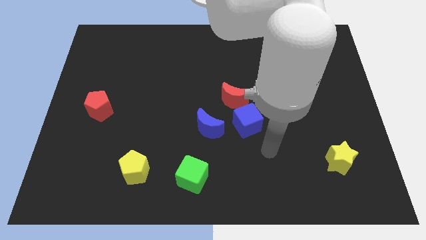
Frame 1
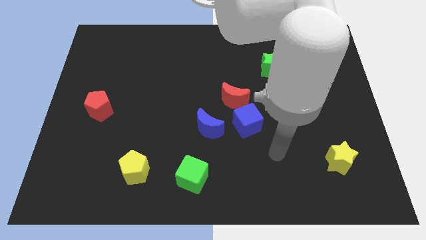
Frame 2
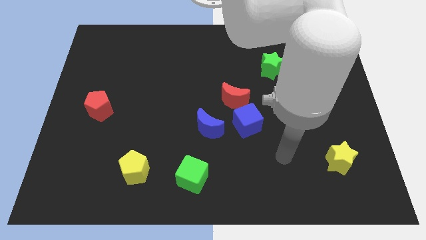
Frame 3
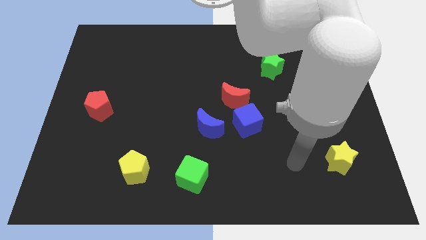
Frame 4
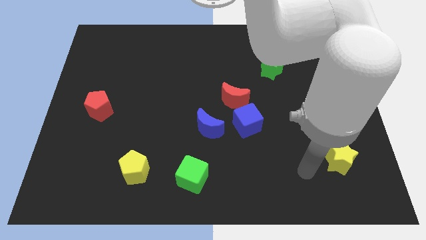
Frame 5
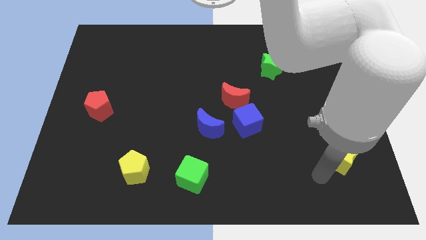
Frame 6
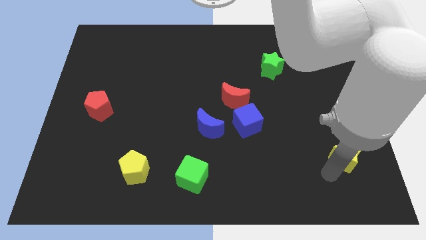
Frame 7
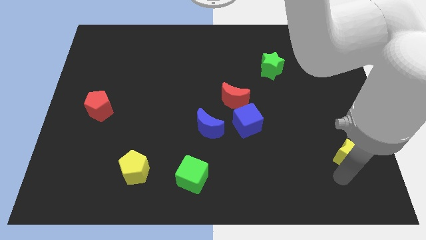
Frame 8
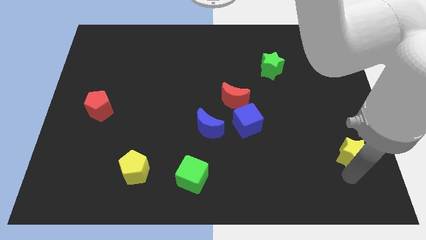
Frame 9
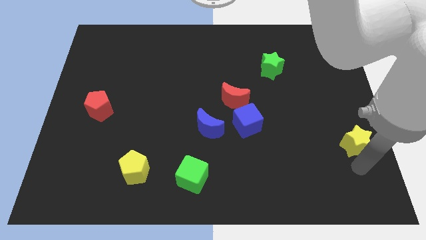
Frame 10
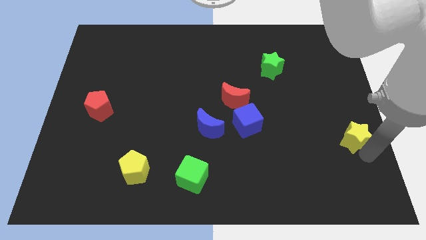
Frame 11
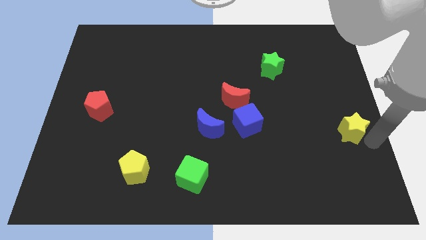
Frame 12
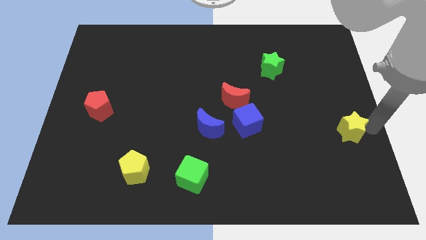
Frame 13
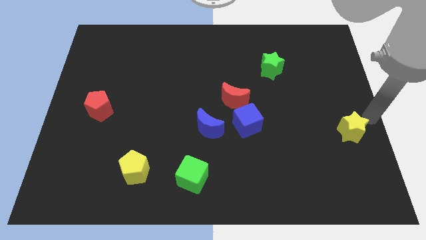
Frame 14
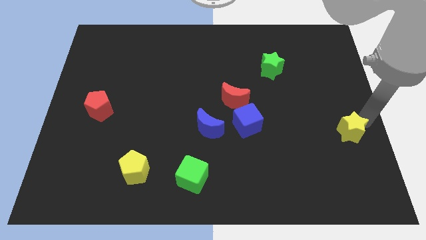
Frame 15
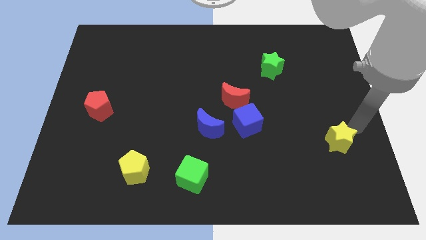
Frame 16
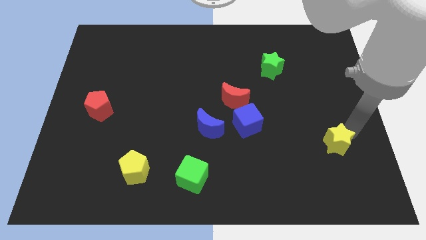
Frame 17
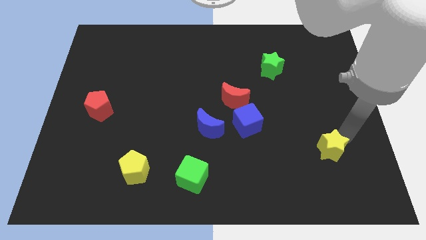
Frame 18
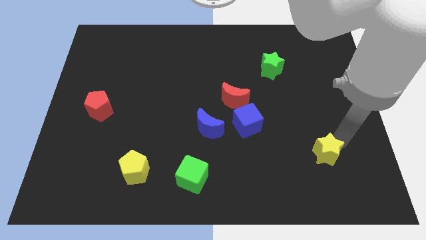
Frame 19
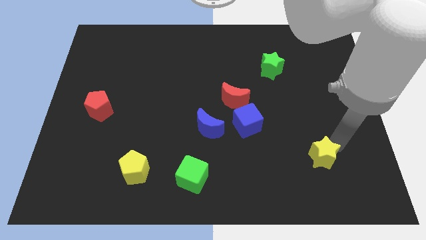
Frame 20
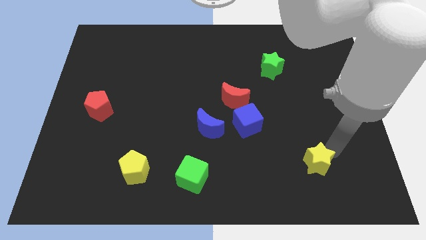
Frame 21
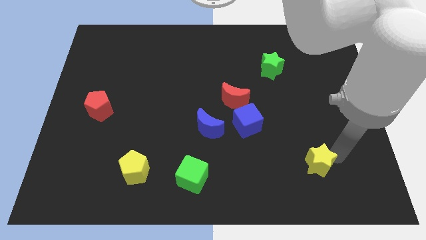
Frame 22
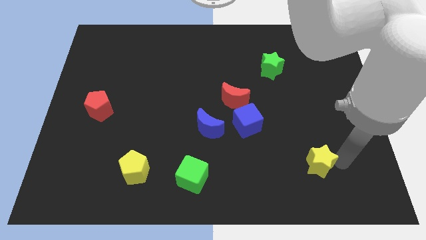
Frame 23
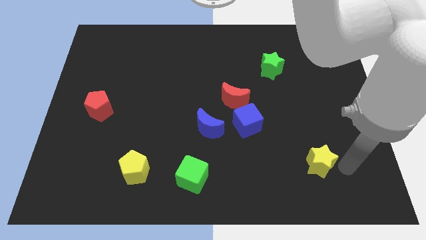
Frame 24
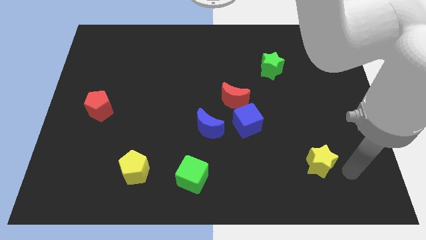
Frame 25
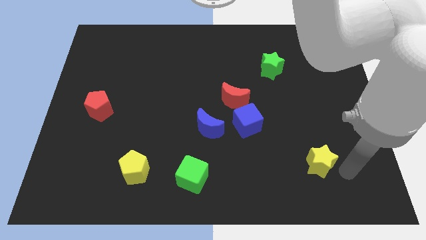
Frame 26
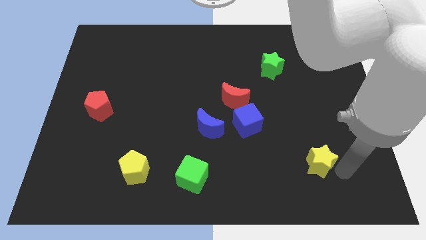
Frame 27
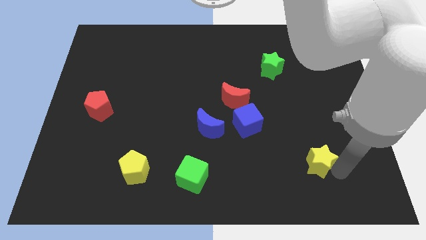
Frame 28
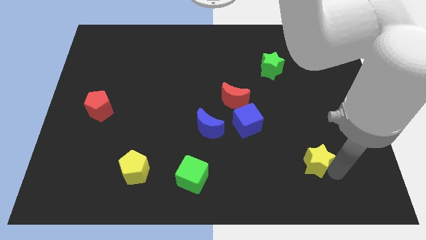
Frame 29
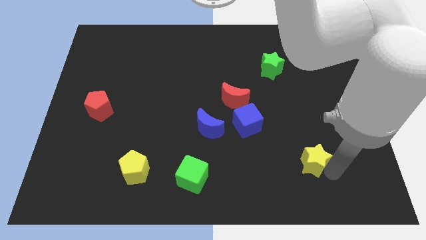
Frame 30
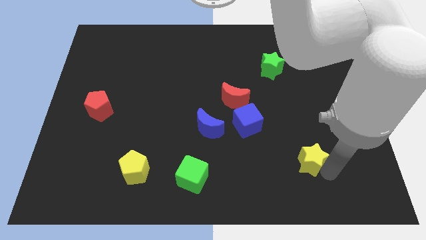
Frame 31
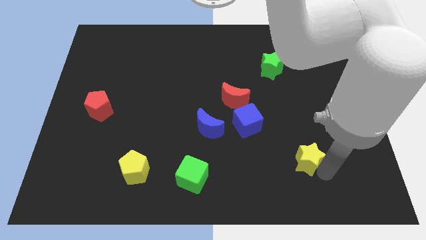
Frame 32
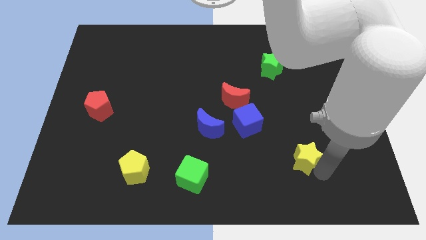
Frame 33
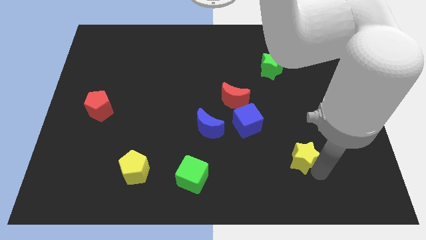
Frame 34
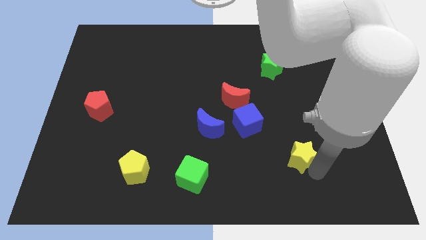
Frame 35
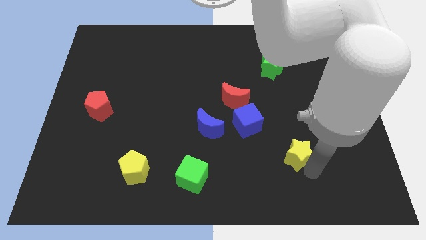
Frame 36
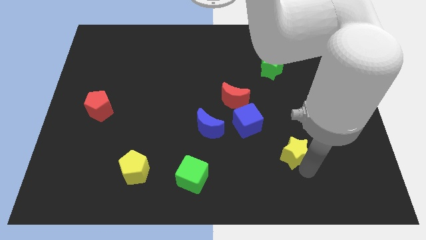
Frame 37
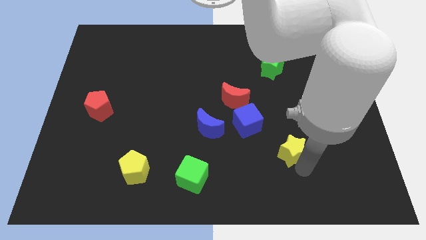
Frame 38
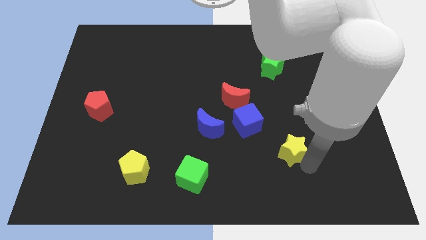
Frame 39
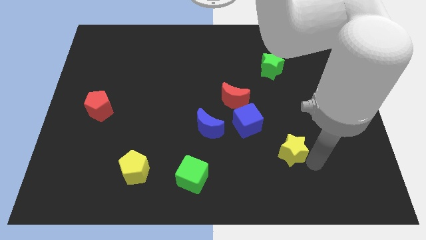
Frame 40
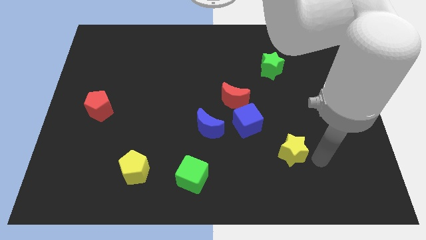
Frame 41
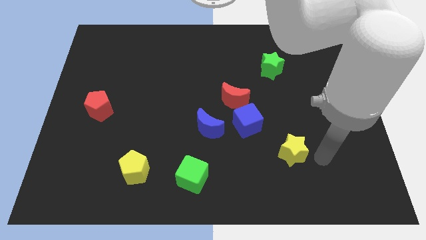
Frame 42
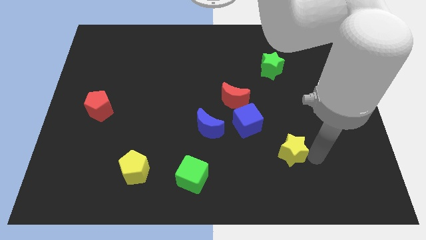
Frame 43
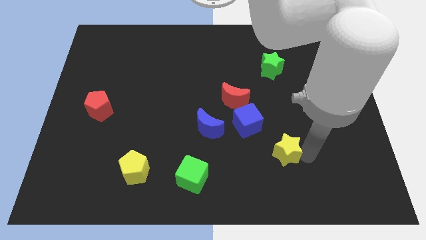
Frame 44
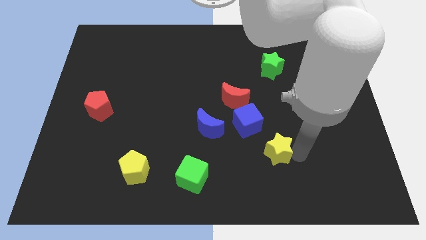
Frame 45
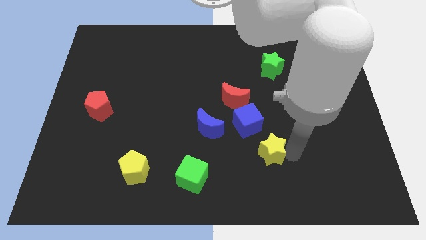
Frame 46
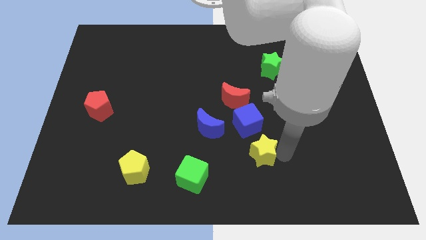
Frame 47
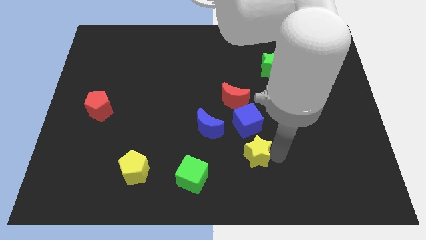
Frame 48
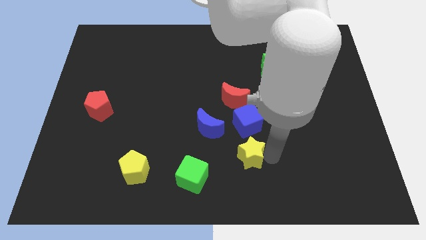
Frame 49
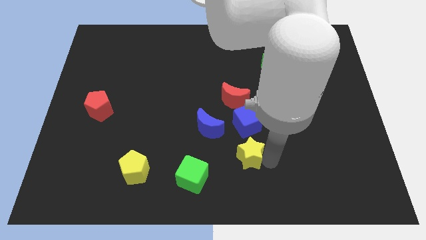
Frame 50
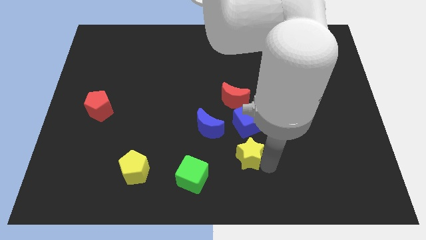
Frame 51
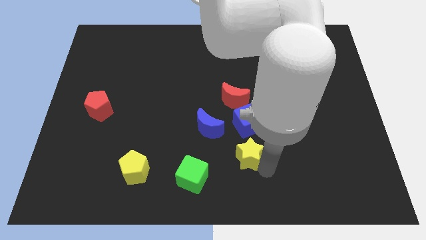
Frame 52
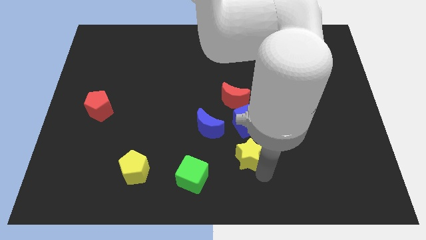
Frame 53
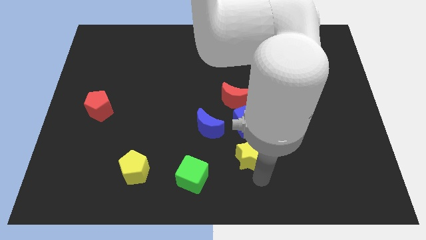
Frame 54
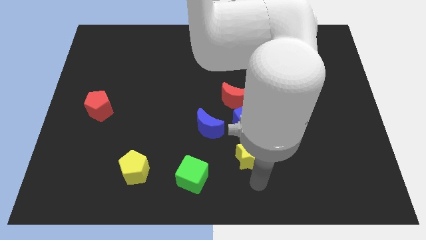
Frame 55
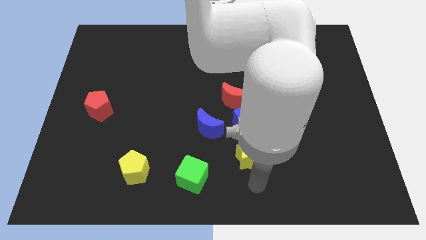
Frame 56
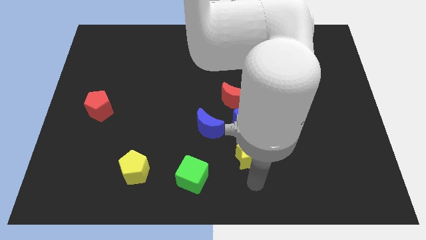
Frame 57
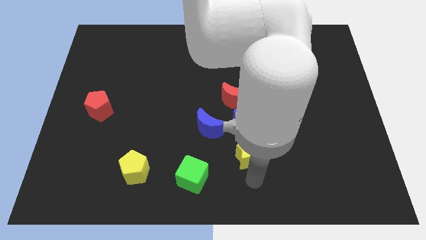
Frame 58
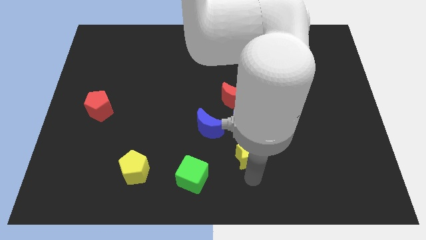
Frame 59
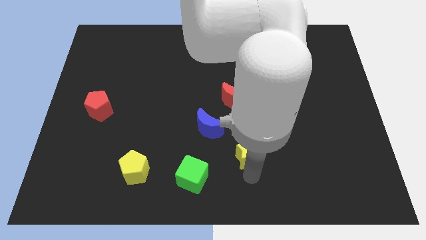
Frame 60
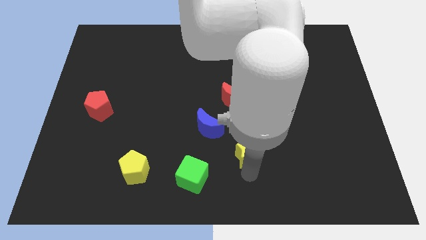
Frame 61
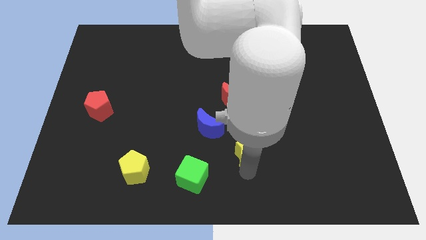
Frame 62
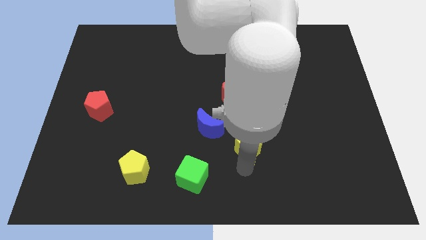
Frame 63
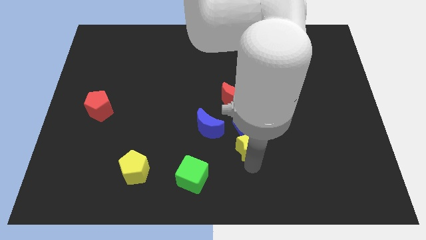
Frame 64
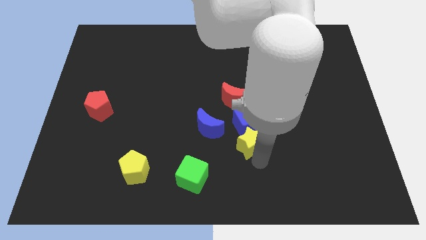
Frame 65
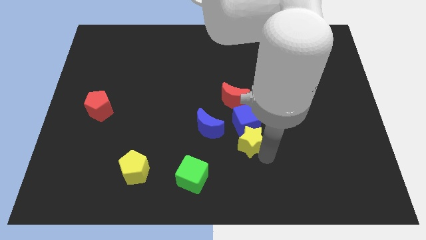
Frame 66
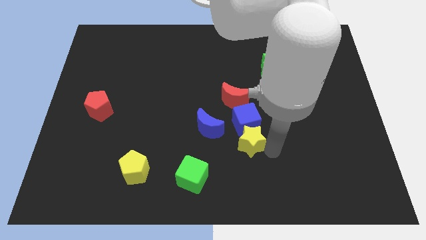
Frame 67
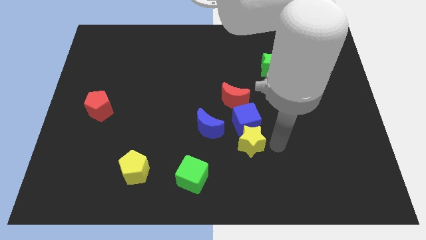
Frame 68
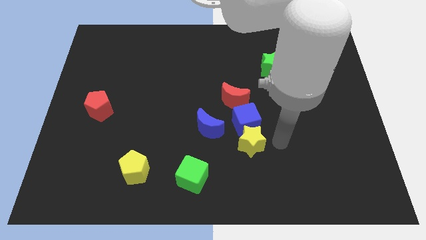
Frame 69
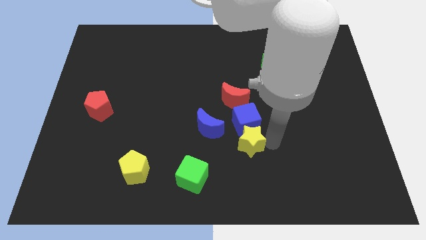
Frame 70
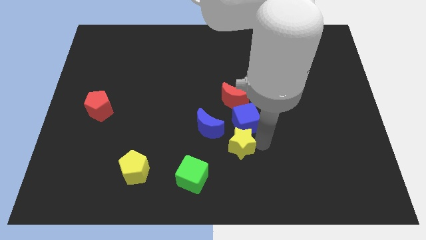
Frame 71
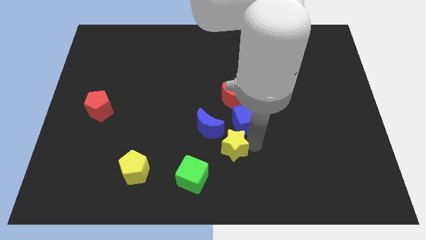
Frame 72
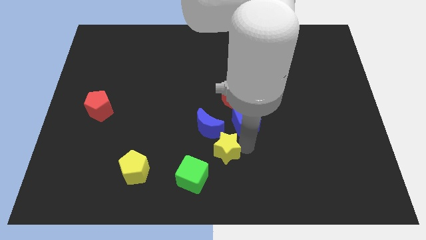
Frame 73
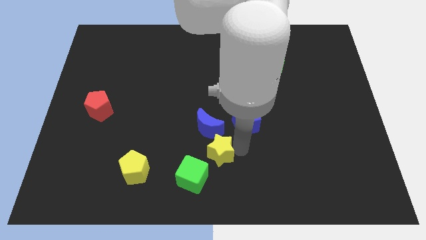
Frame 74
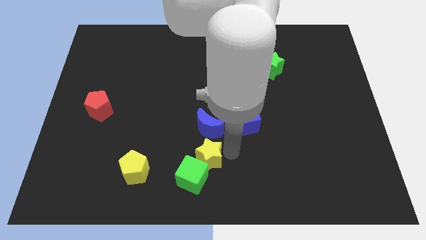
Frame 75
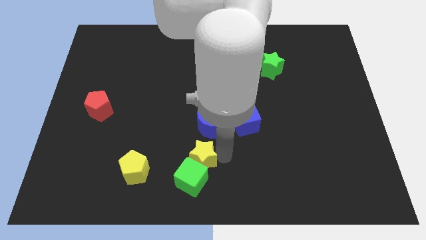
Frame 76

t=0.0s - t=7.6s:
slide the yellow star to the bottom left of the blue moon
